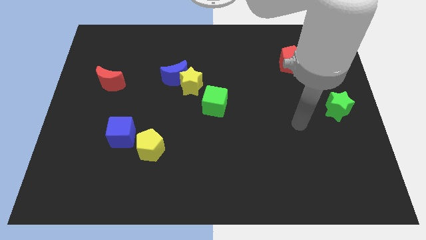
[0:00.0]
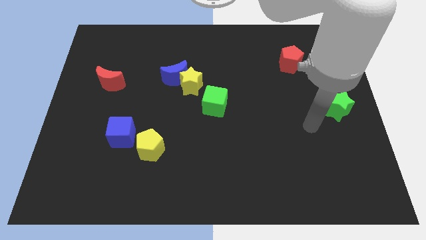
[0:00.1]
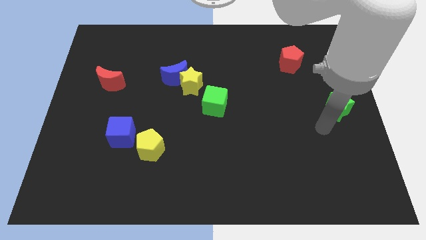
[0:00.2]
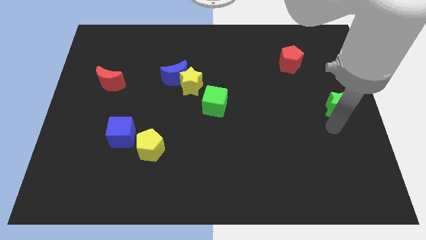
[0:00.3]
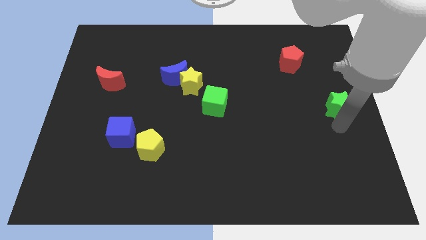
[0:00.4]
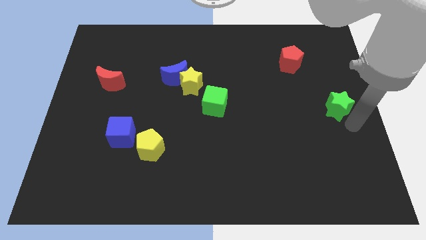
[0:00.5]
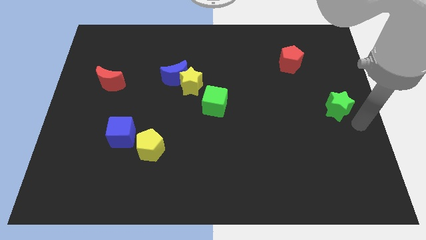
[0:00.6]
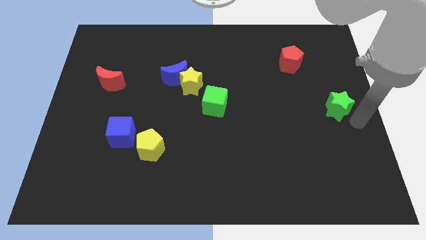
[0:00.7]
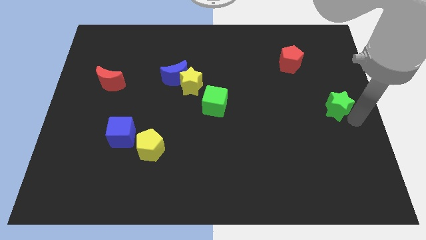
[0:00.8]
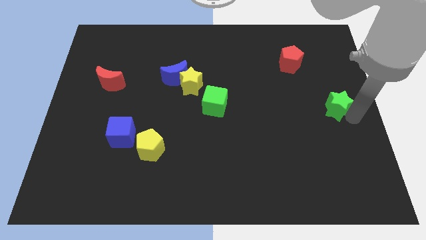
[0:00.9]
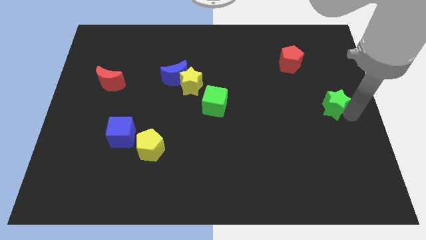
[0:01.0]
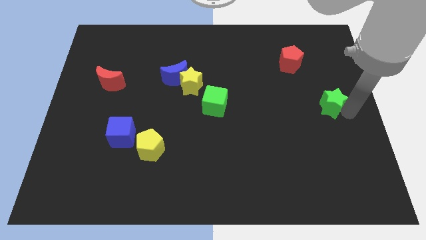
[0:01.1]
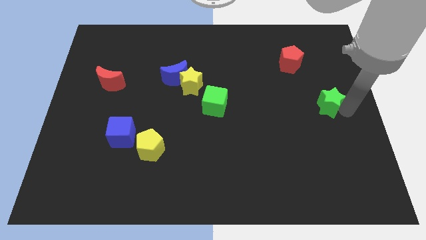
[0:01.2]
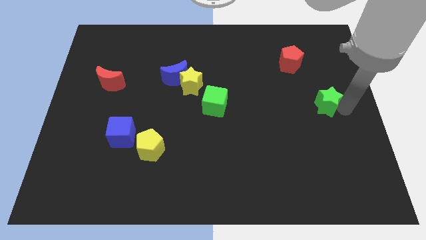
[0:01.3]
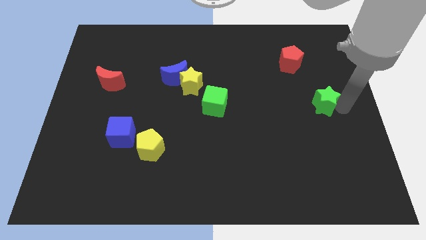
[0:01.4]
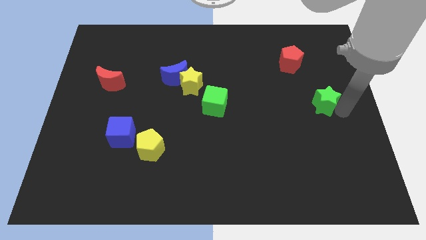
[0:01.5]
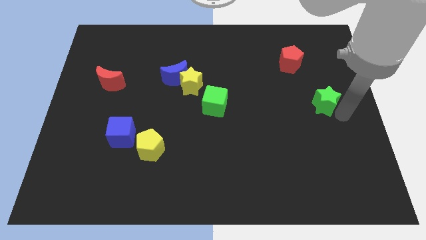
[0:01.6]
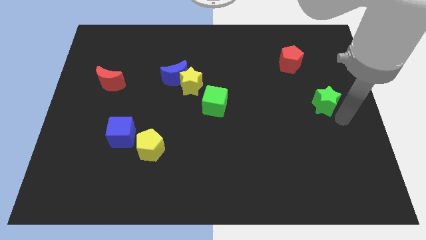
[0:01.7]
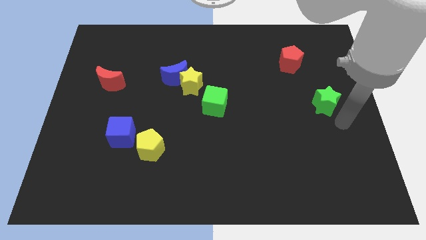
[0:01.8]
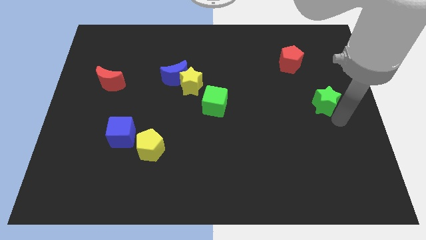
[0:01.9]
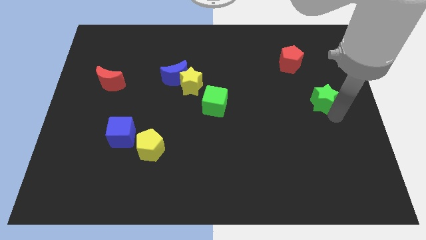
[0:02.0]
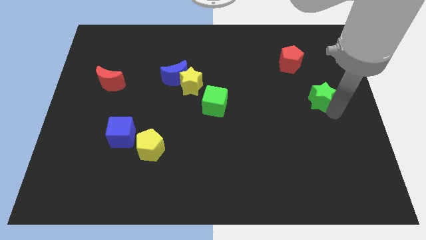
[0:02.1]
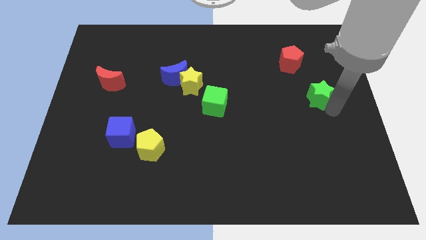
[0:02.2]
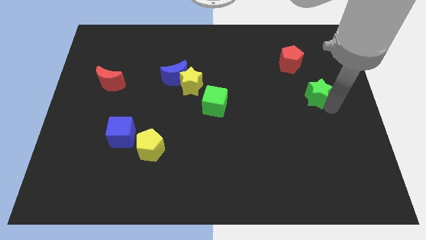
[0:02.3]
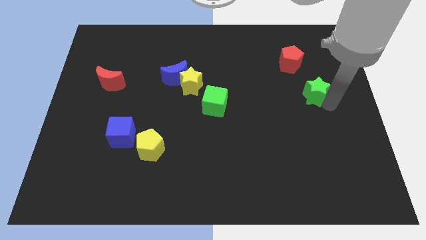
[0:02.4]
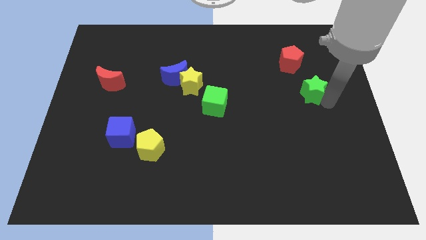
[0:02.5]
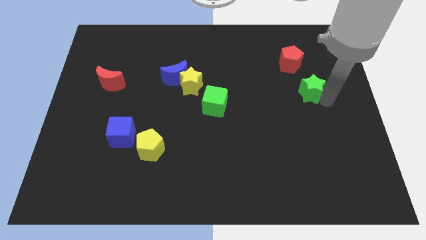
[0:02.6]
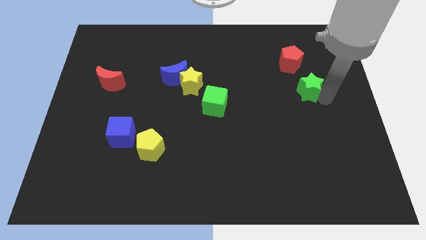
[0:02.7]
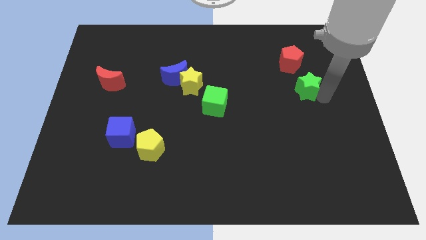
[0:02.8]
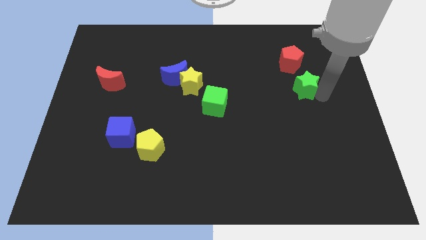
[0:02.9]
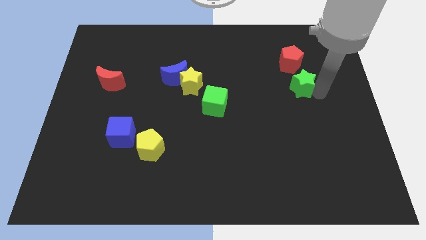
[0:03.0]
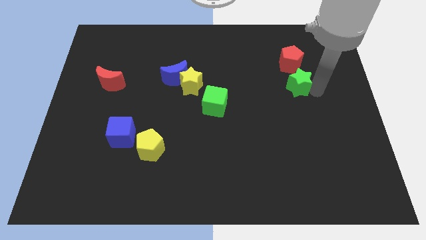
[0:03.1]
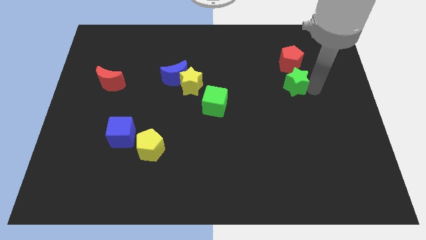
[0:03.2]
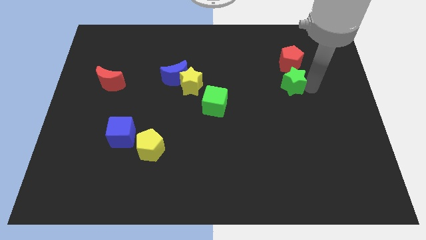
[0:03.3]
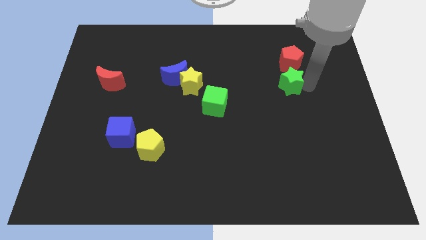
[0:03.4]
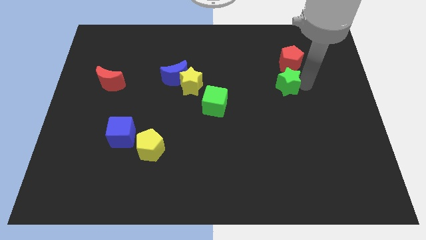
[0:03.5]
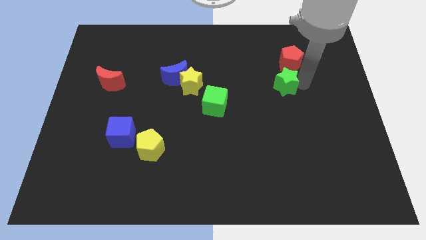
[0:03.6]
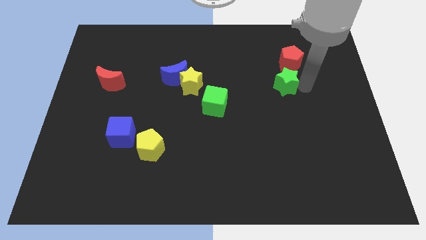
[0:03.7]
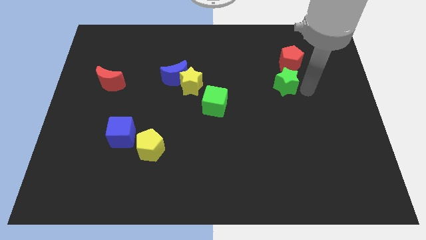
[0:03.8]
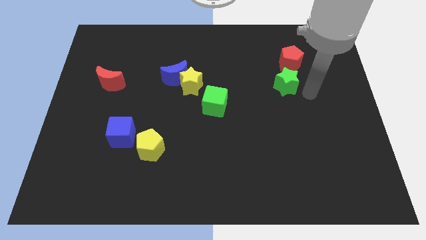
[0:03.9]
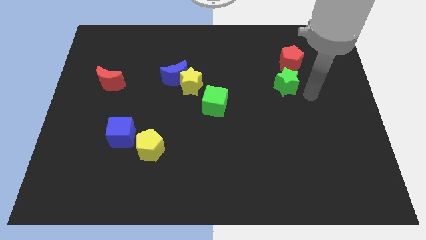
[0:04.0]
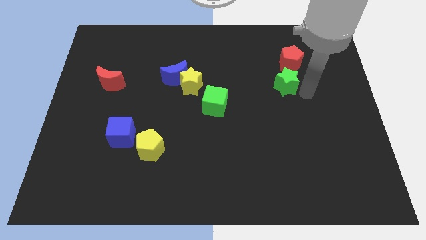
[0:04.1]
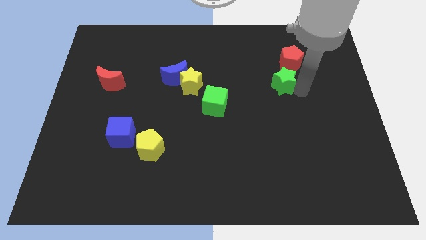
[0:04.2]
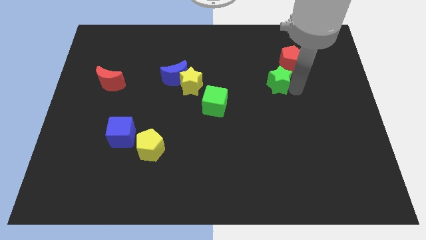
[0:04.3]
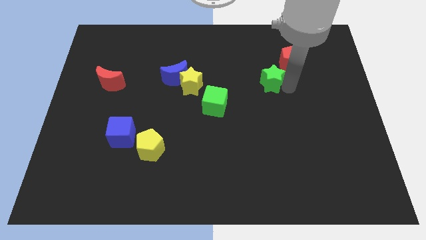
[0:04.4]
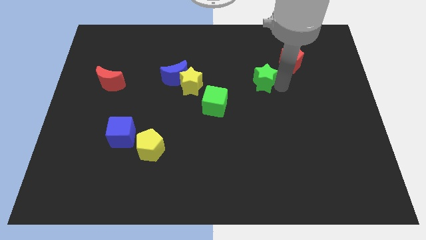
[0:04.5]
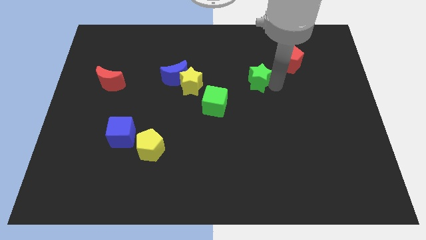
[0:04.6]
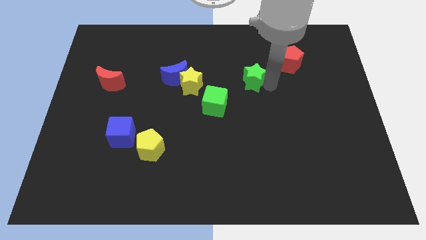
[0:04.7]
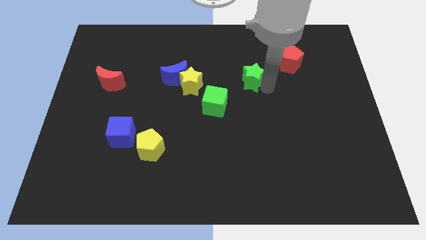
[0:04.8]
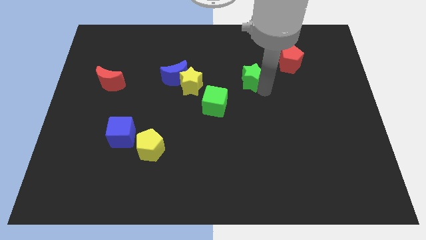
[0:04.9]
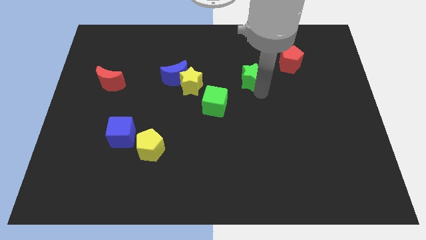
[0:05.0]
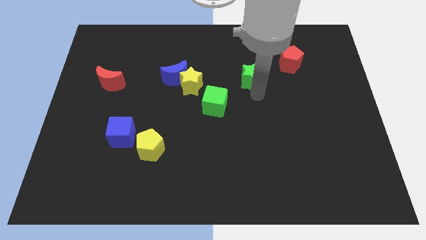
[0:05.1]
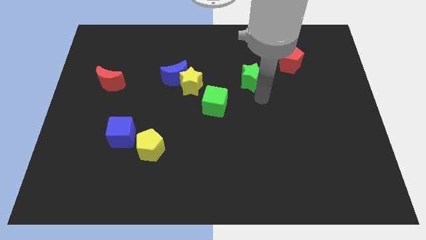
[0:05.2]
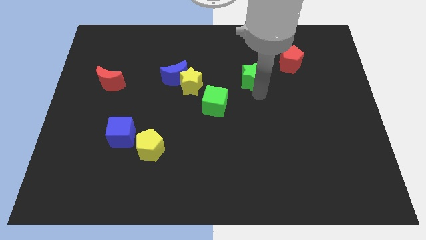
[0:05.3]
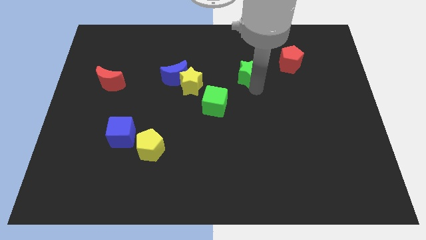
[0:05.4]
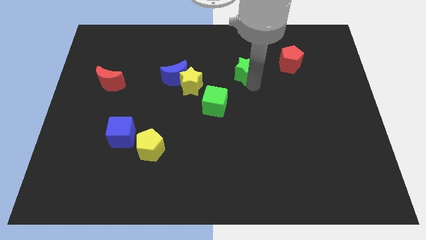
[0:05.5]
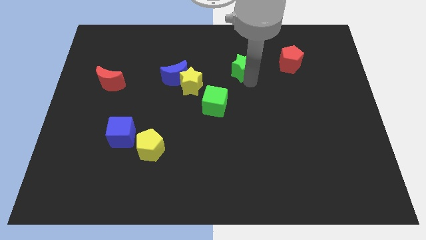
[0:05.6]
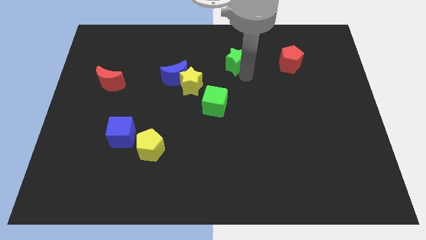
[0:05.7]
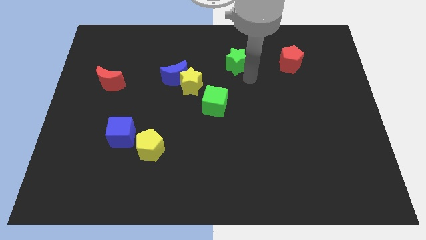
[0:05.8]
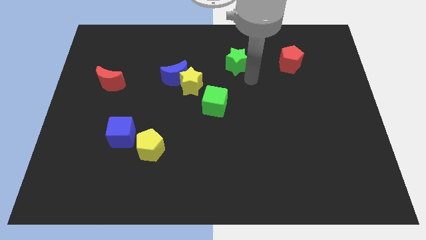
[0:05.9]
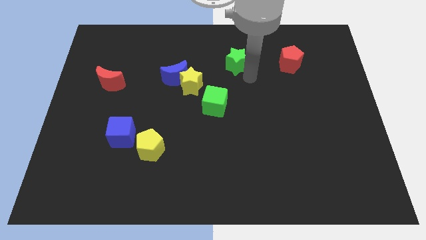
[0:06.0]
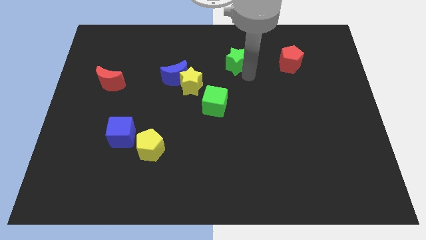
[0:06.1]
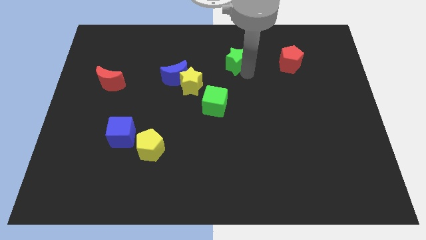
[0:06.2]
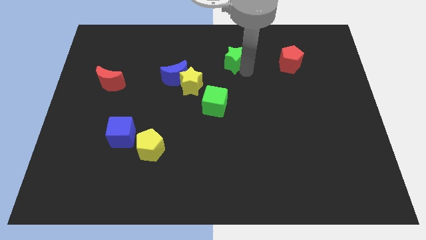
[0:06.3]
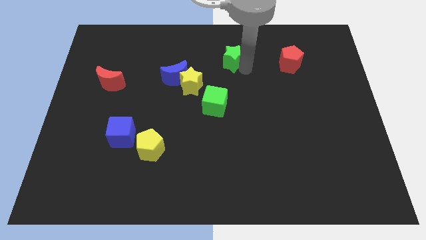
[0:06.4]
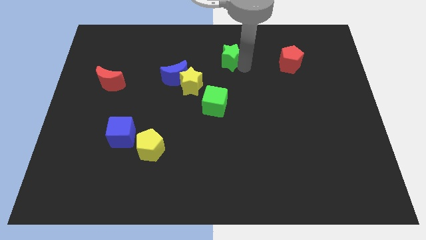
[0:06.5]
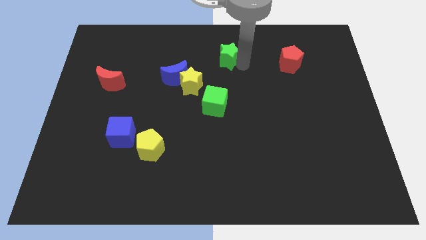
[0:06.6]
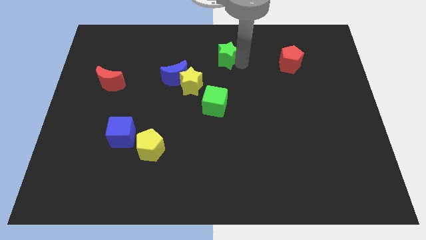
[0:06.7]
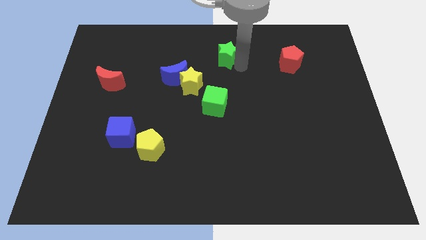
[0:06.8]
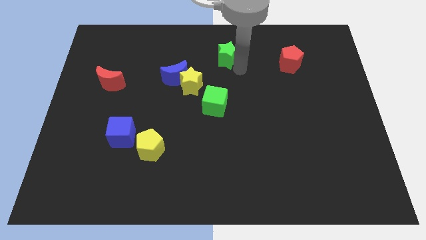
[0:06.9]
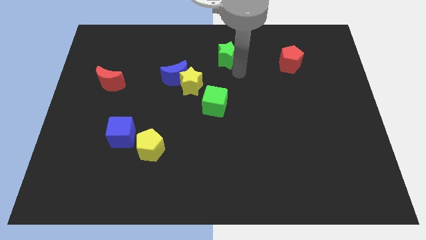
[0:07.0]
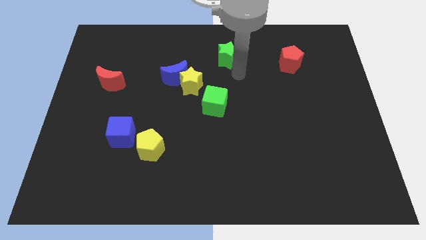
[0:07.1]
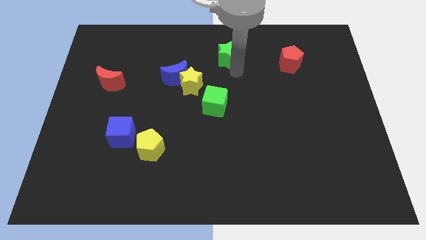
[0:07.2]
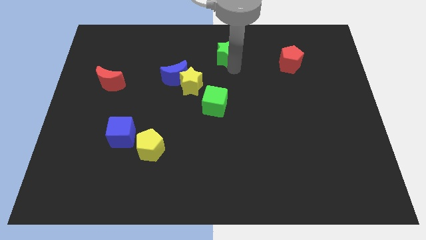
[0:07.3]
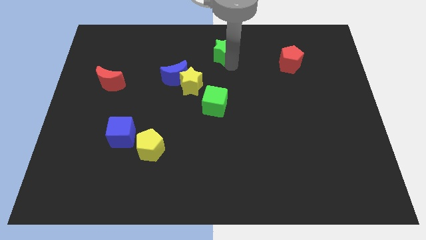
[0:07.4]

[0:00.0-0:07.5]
put the green star to the top side
